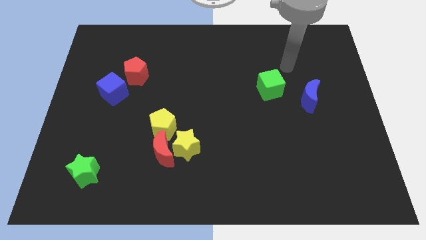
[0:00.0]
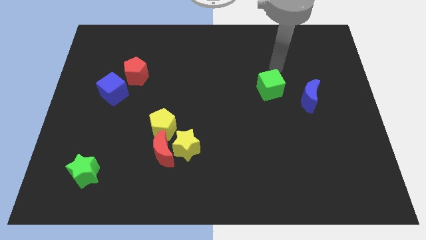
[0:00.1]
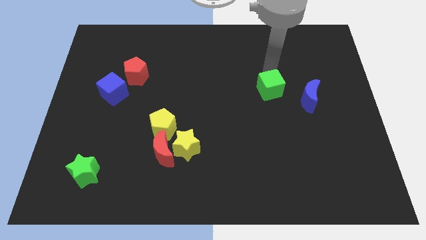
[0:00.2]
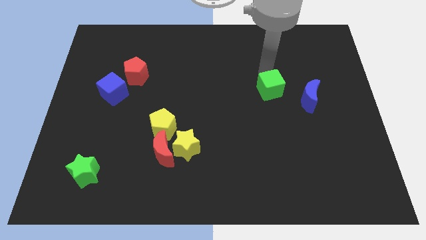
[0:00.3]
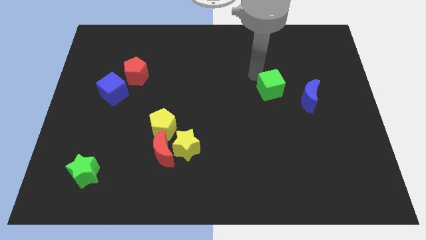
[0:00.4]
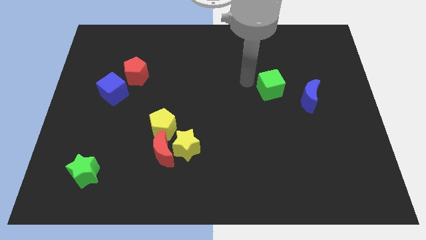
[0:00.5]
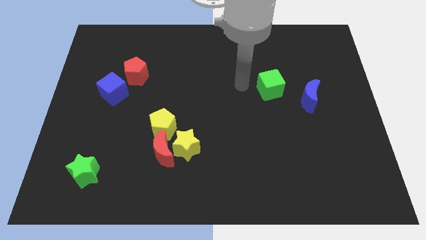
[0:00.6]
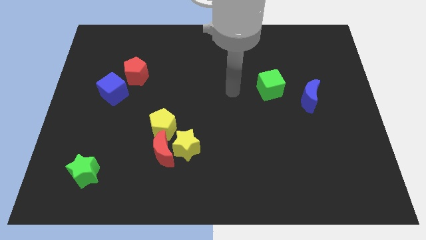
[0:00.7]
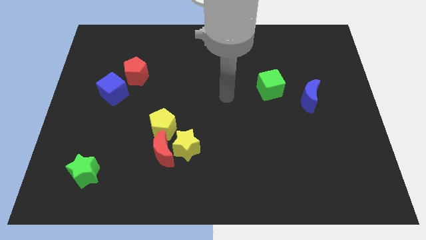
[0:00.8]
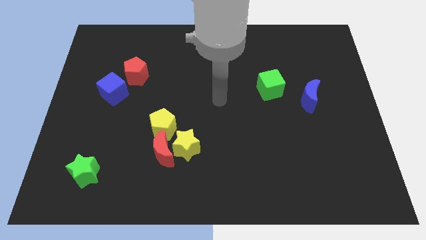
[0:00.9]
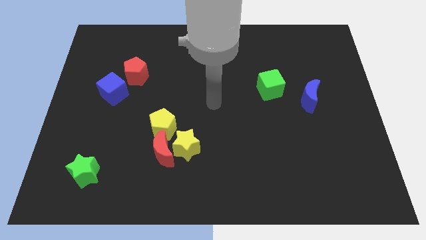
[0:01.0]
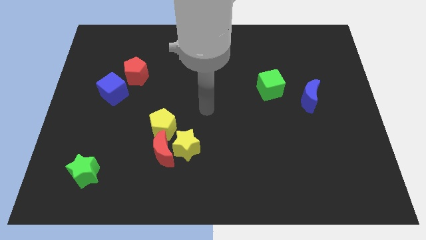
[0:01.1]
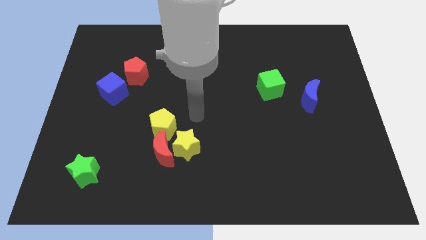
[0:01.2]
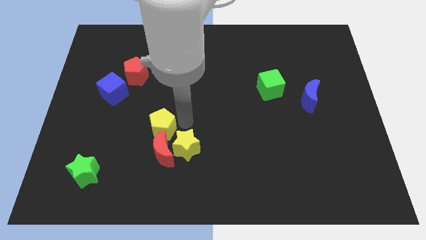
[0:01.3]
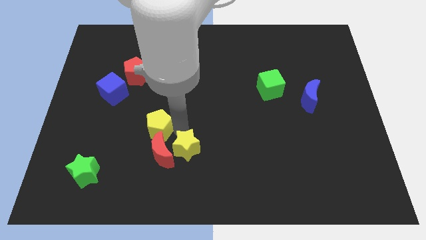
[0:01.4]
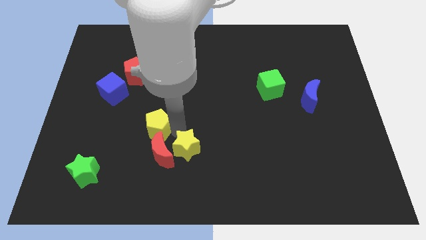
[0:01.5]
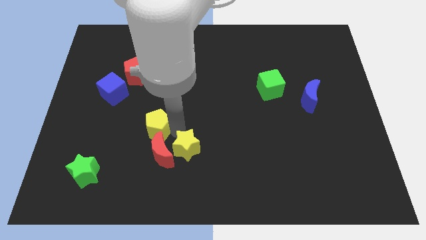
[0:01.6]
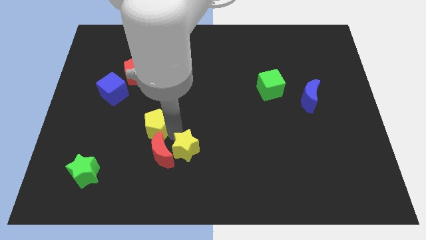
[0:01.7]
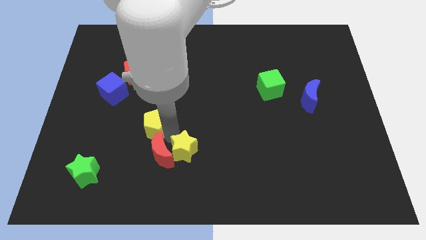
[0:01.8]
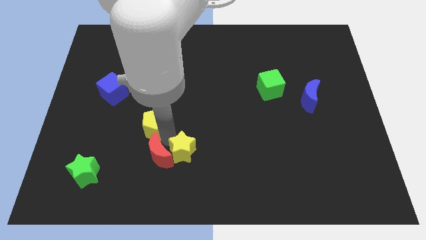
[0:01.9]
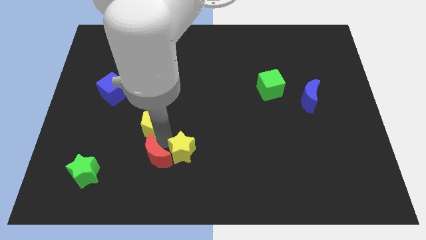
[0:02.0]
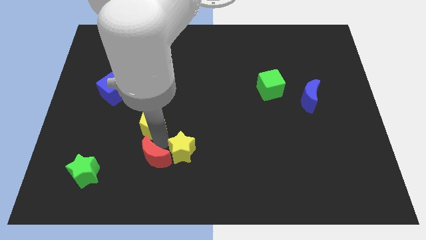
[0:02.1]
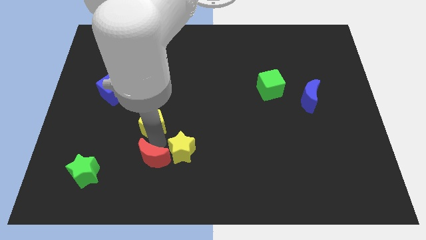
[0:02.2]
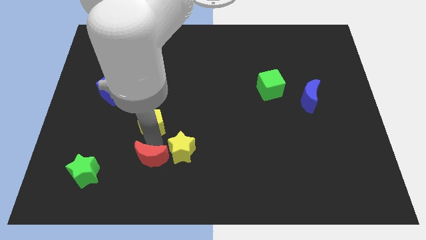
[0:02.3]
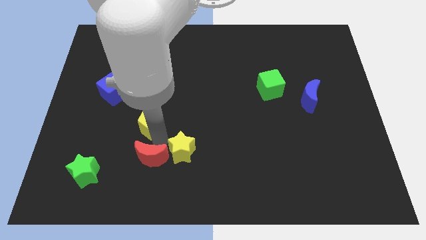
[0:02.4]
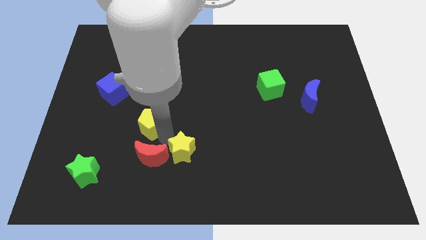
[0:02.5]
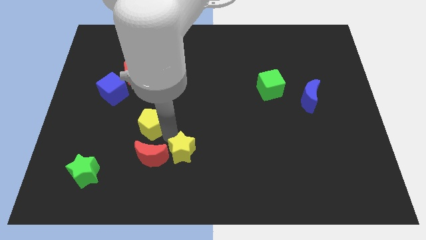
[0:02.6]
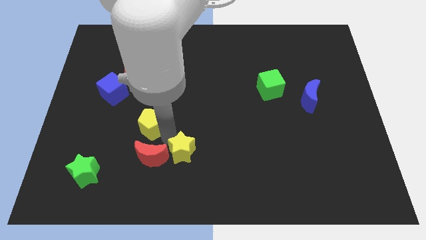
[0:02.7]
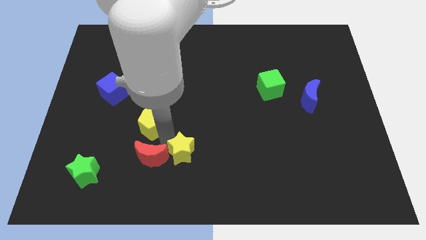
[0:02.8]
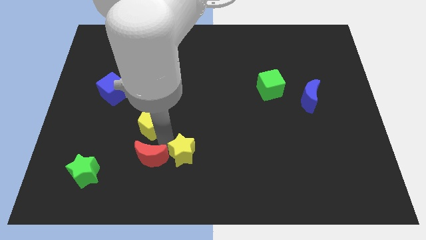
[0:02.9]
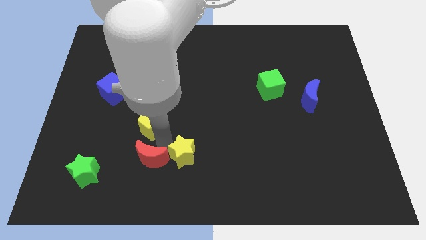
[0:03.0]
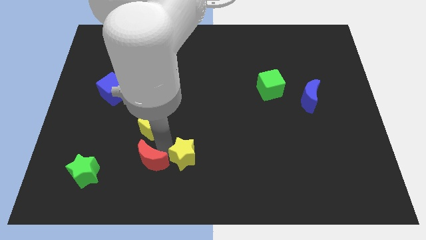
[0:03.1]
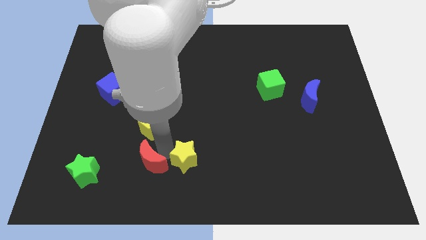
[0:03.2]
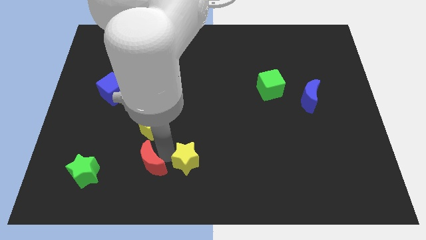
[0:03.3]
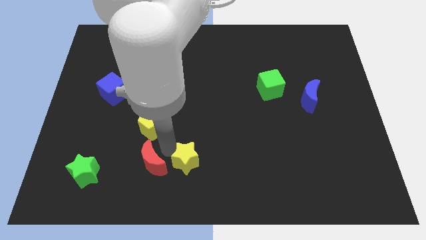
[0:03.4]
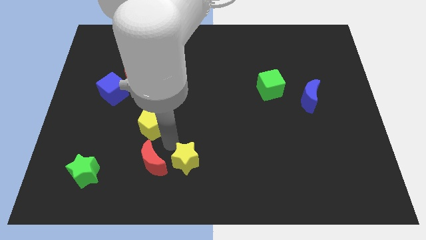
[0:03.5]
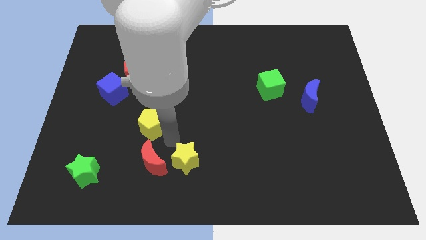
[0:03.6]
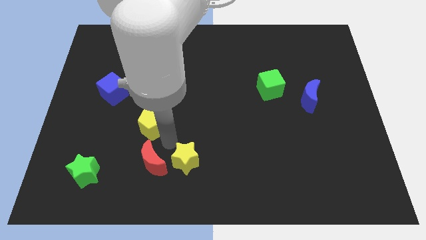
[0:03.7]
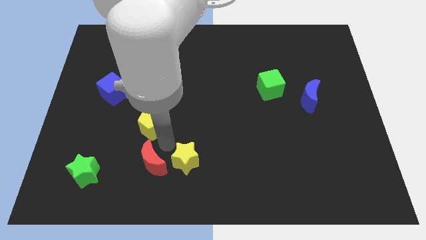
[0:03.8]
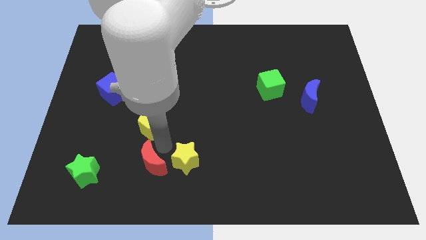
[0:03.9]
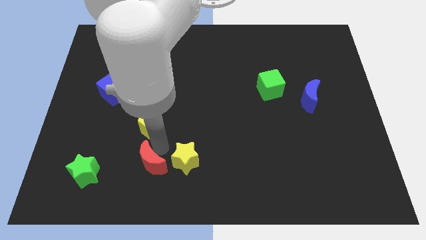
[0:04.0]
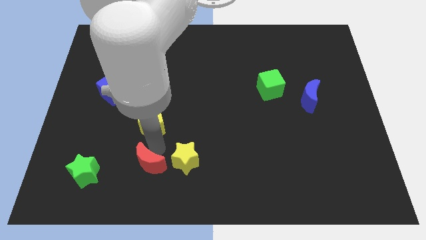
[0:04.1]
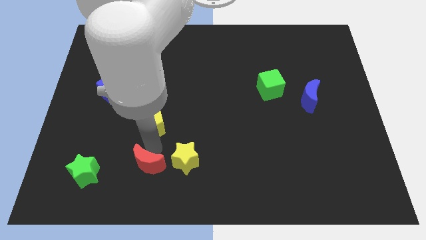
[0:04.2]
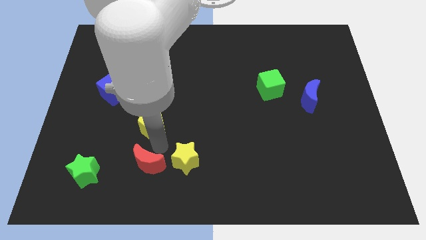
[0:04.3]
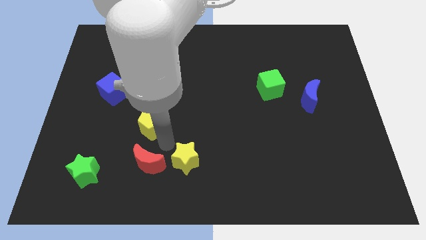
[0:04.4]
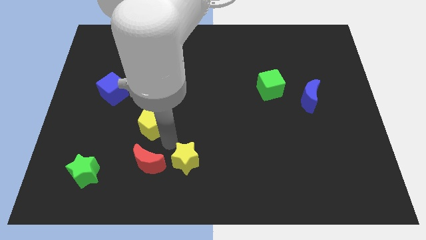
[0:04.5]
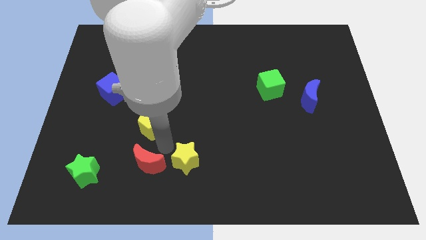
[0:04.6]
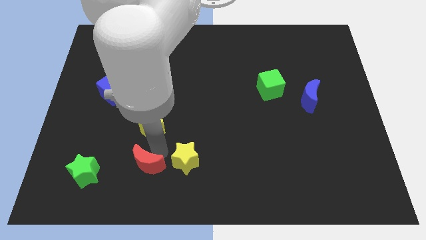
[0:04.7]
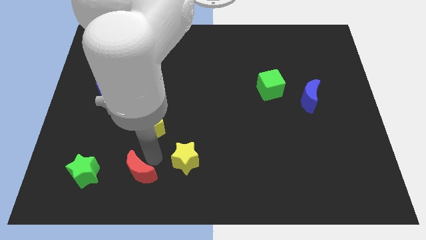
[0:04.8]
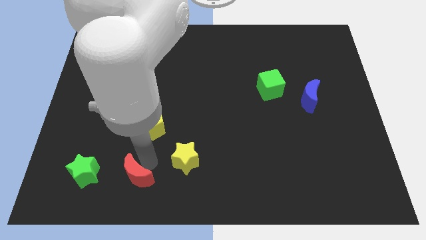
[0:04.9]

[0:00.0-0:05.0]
move the red moon away from the yellow star and yellow pentagon

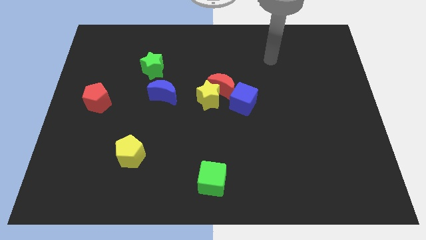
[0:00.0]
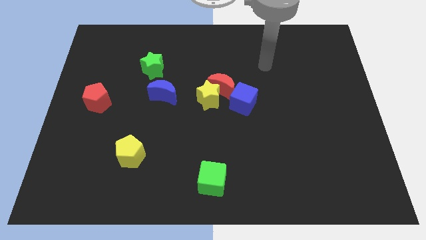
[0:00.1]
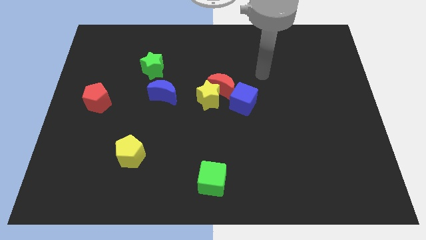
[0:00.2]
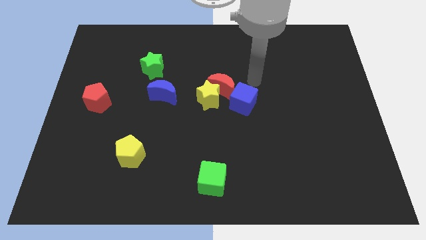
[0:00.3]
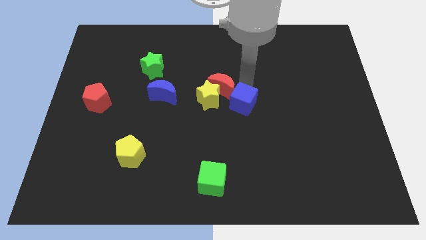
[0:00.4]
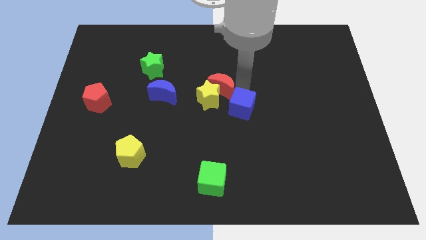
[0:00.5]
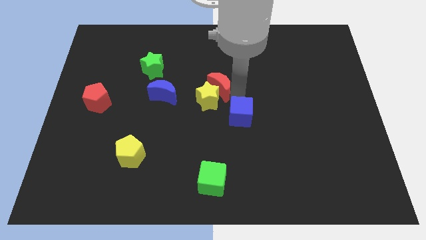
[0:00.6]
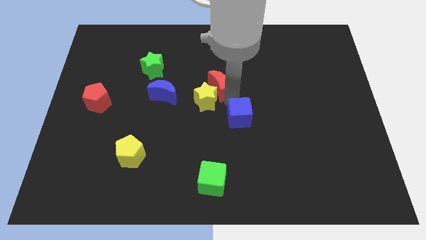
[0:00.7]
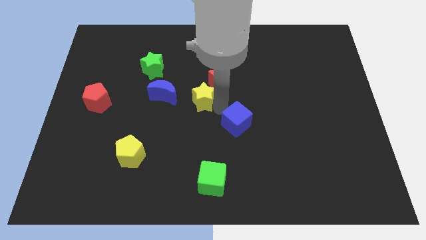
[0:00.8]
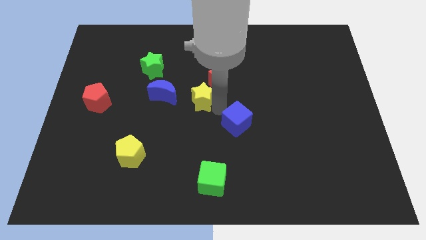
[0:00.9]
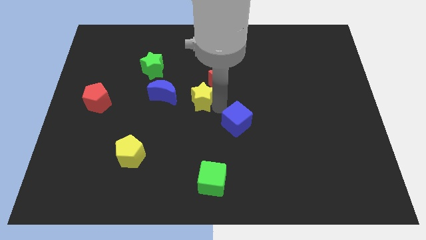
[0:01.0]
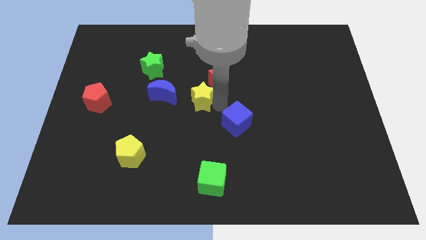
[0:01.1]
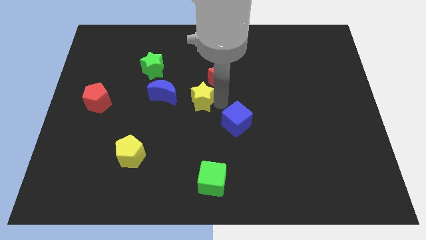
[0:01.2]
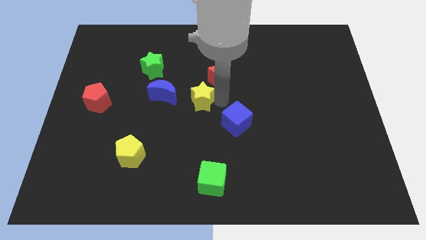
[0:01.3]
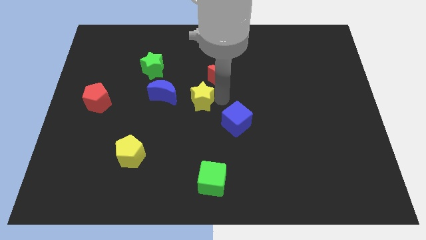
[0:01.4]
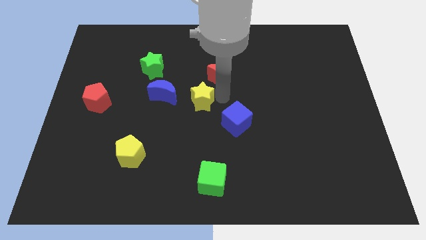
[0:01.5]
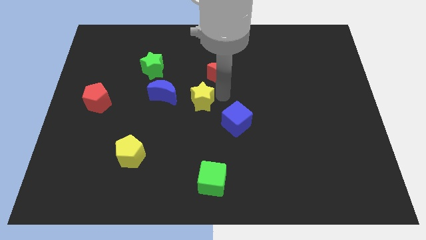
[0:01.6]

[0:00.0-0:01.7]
pull the red moon apart from the yellow star and blue cube

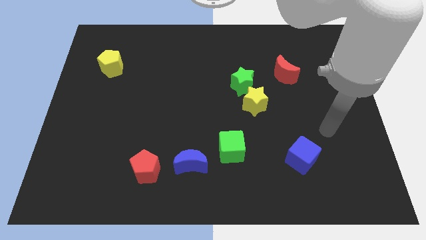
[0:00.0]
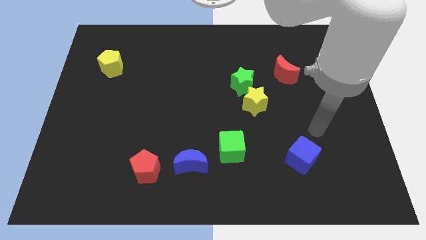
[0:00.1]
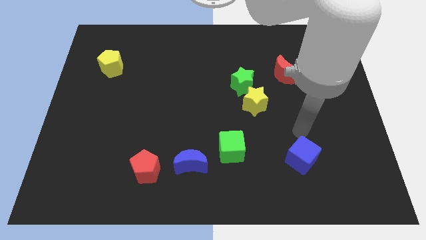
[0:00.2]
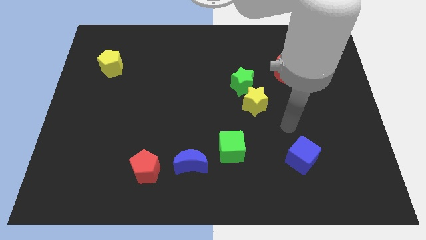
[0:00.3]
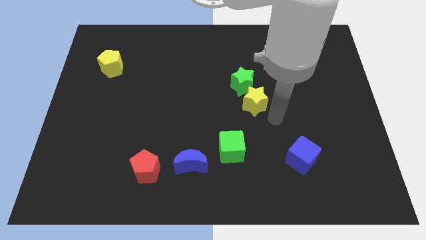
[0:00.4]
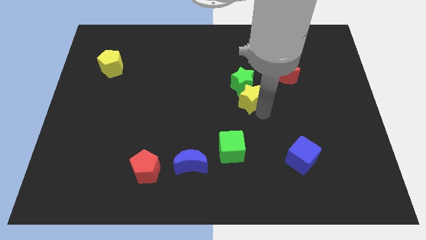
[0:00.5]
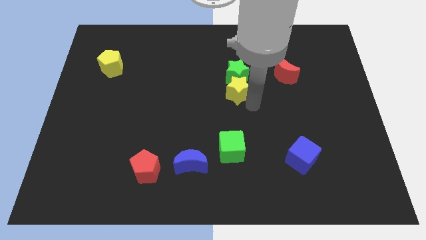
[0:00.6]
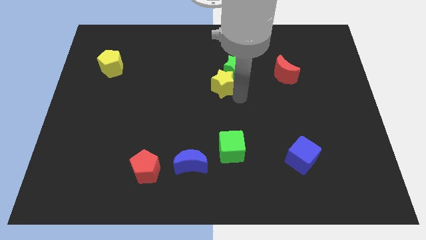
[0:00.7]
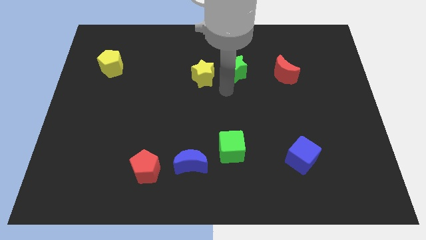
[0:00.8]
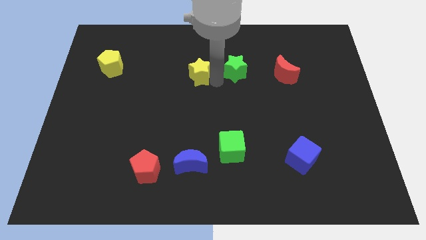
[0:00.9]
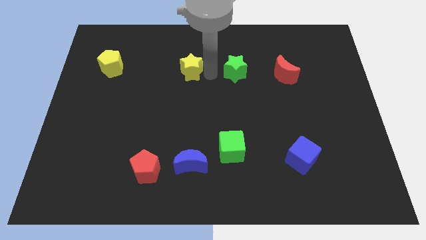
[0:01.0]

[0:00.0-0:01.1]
pull the green star apart from the yellow star

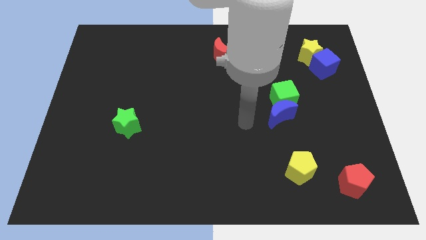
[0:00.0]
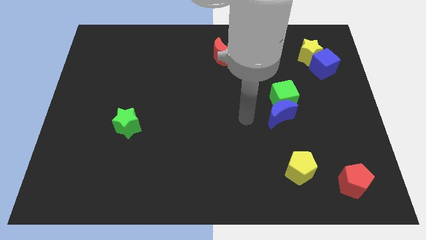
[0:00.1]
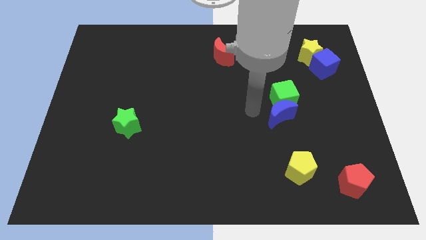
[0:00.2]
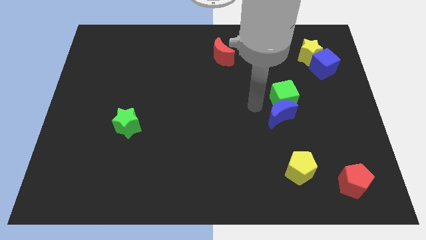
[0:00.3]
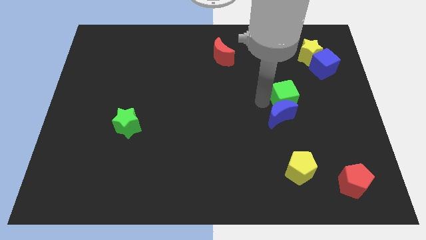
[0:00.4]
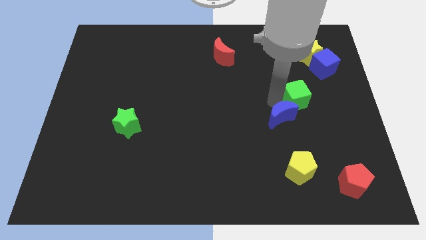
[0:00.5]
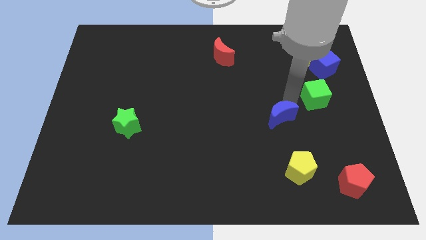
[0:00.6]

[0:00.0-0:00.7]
move the blue moon away from the green cube

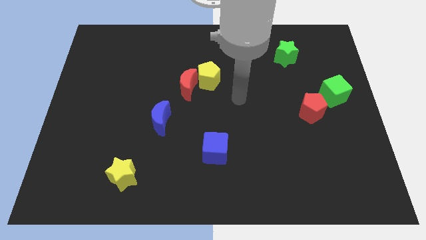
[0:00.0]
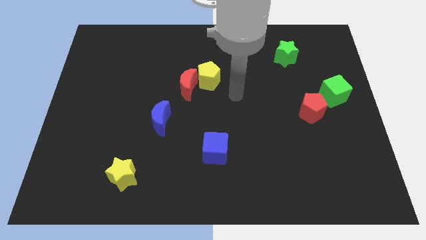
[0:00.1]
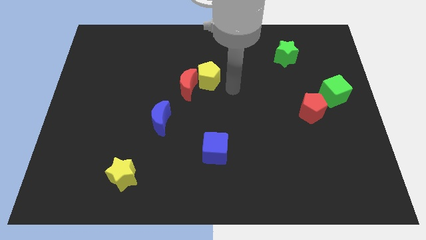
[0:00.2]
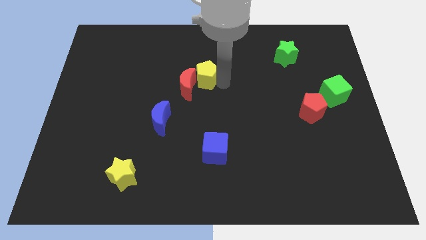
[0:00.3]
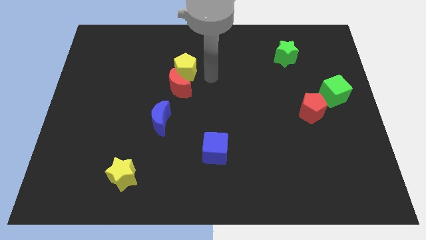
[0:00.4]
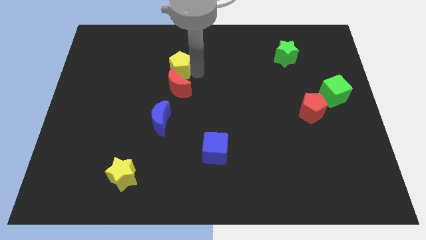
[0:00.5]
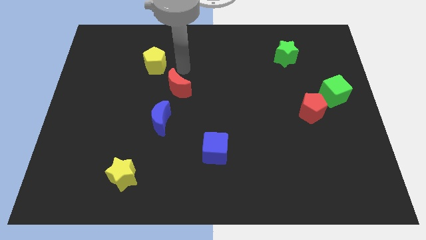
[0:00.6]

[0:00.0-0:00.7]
pull the red moon apart from the yellow pentagon

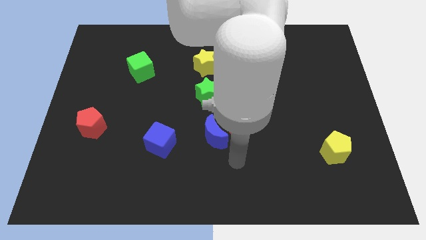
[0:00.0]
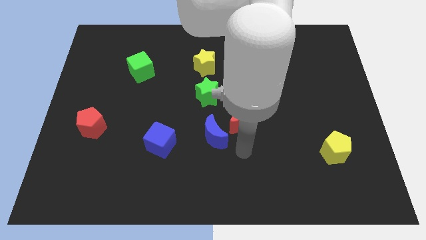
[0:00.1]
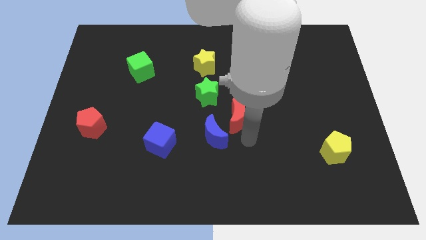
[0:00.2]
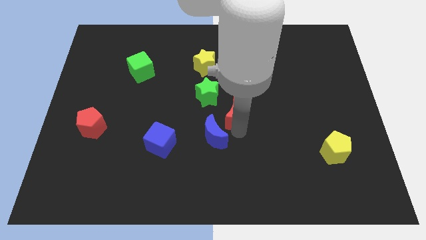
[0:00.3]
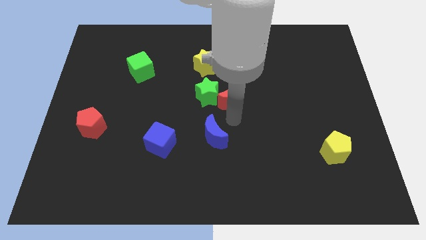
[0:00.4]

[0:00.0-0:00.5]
separate the blue moon from the red moon
